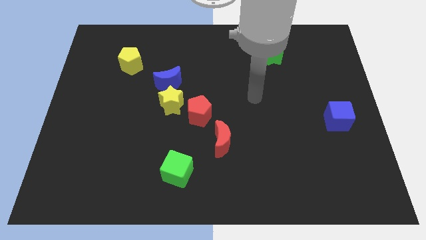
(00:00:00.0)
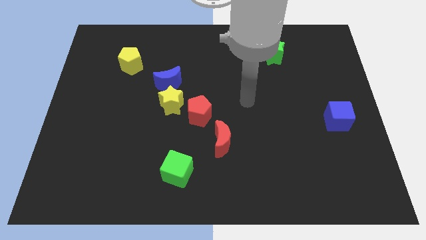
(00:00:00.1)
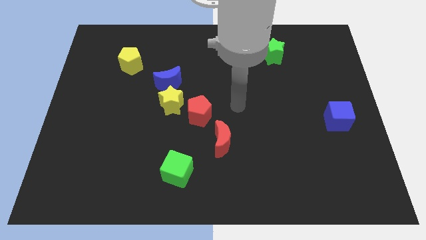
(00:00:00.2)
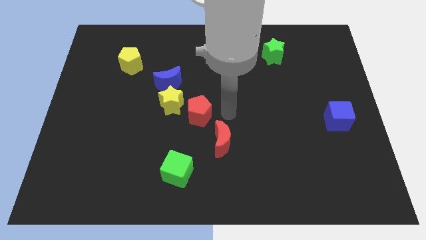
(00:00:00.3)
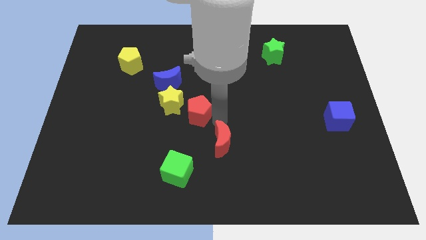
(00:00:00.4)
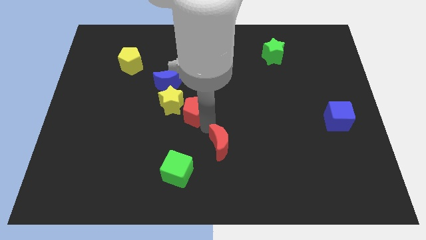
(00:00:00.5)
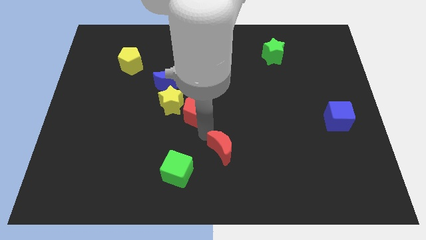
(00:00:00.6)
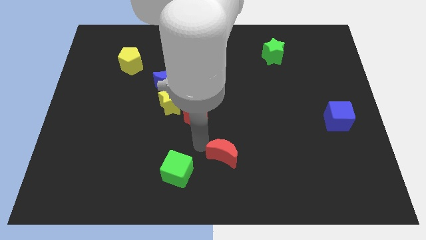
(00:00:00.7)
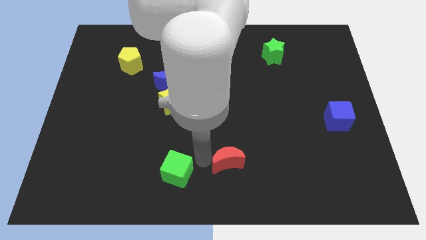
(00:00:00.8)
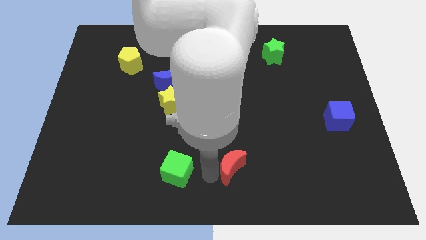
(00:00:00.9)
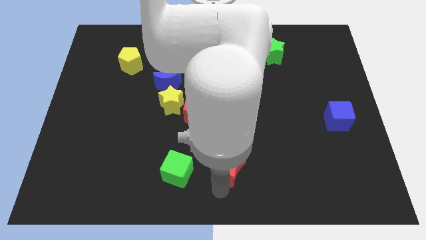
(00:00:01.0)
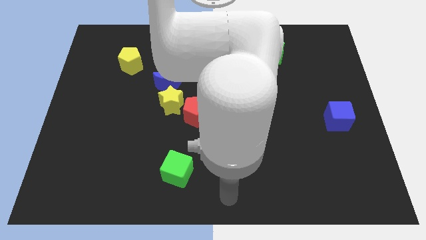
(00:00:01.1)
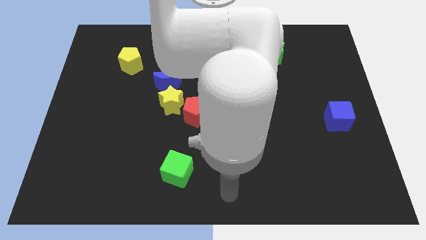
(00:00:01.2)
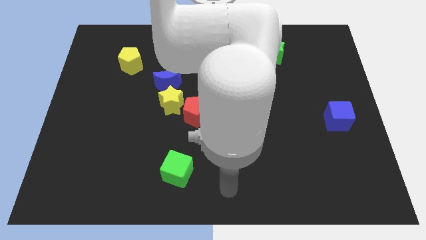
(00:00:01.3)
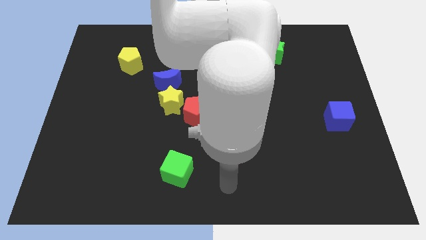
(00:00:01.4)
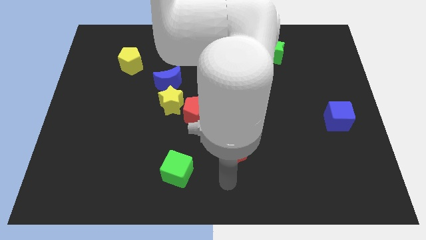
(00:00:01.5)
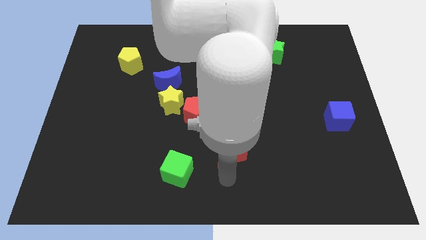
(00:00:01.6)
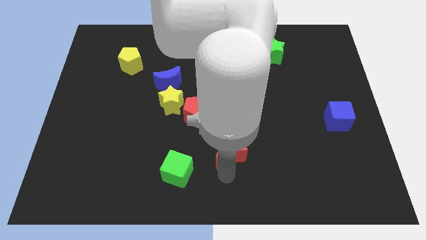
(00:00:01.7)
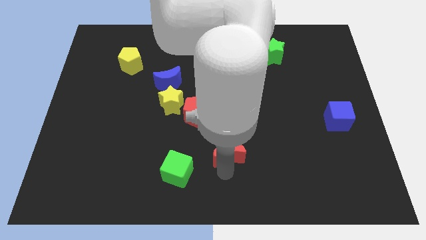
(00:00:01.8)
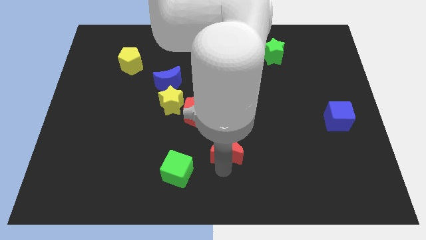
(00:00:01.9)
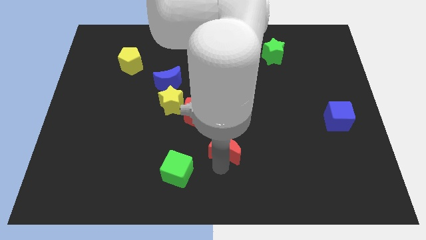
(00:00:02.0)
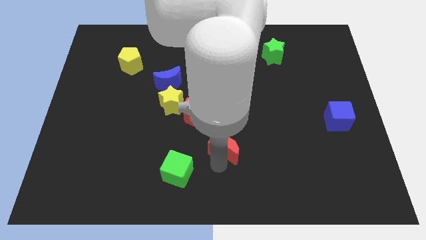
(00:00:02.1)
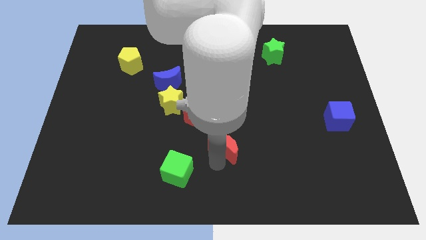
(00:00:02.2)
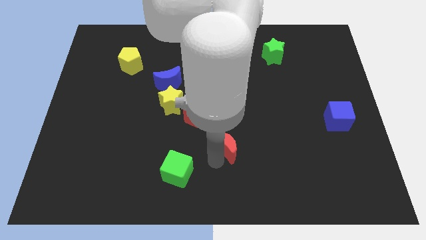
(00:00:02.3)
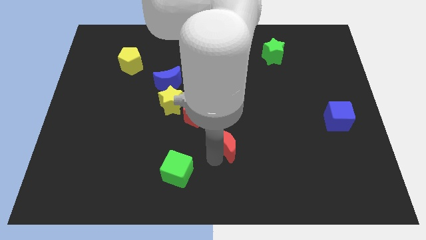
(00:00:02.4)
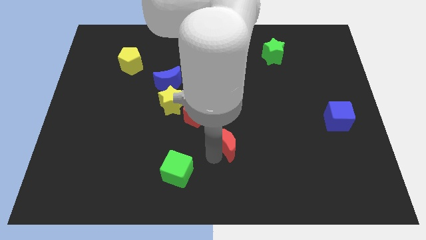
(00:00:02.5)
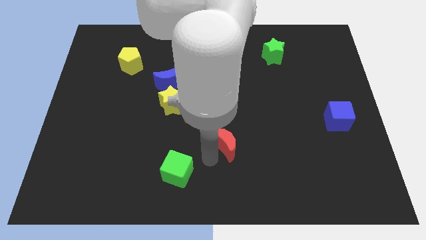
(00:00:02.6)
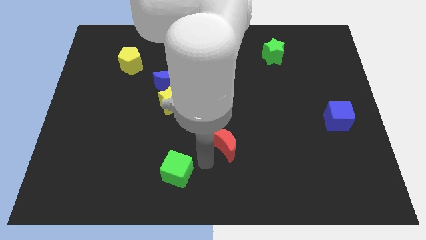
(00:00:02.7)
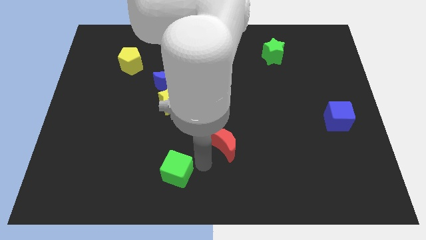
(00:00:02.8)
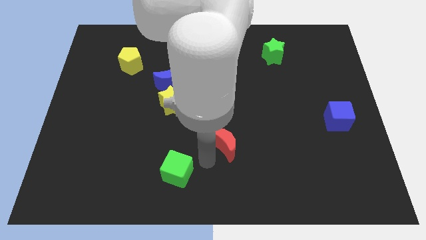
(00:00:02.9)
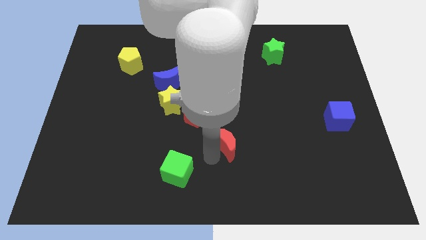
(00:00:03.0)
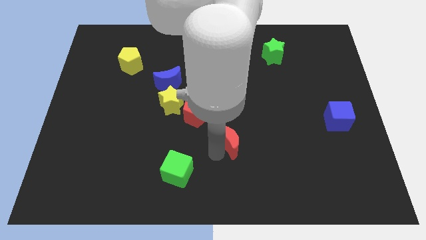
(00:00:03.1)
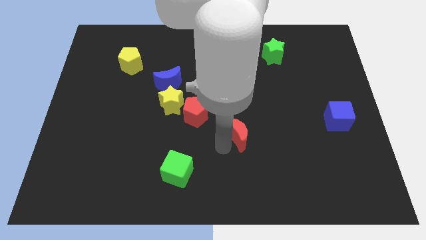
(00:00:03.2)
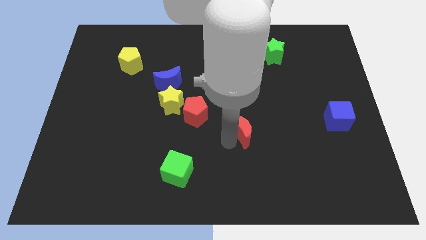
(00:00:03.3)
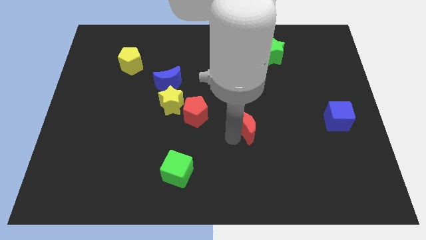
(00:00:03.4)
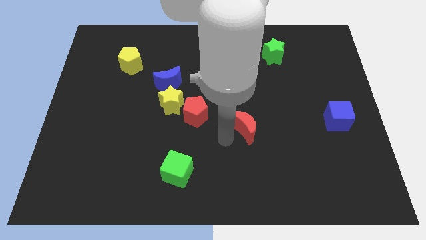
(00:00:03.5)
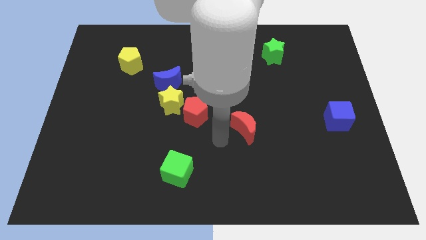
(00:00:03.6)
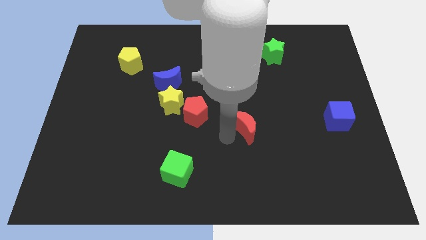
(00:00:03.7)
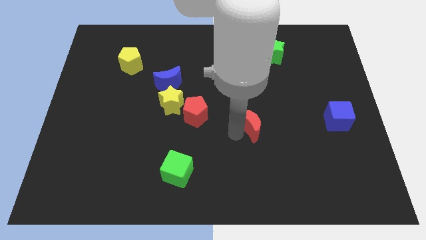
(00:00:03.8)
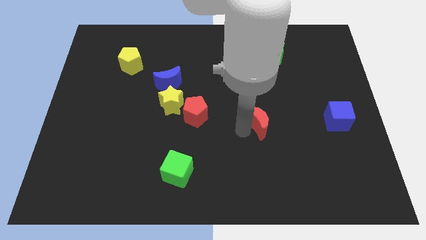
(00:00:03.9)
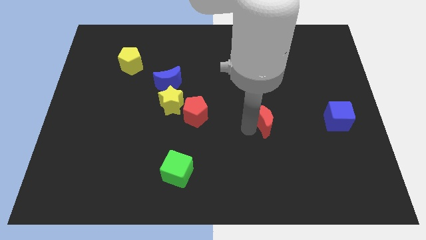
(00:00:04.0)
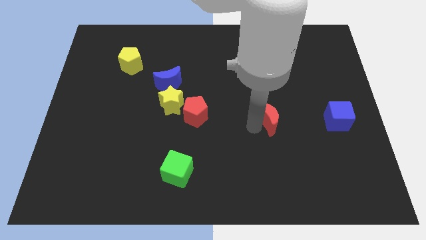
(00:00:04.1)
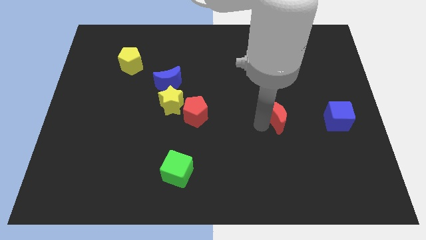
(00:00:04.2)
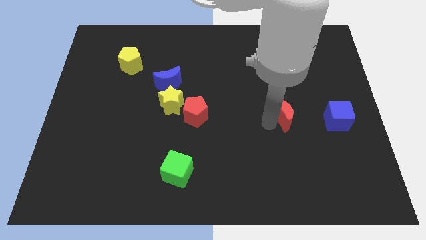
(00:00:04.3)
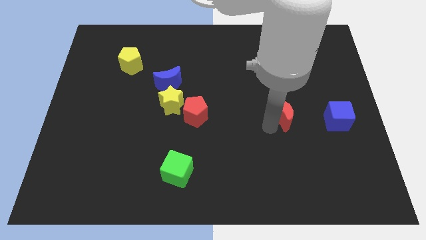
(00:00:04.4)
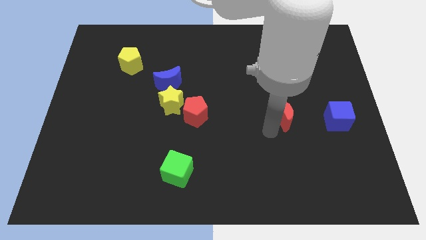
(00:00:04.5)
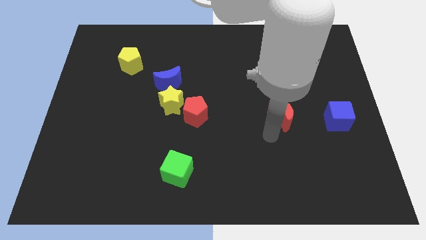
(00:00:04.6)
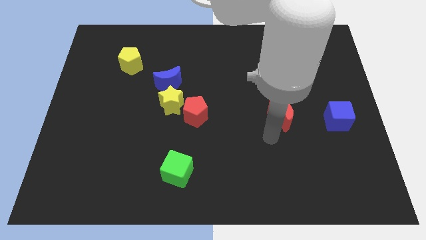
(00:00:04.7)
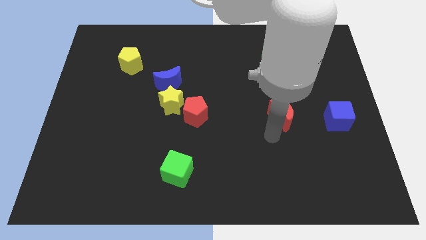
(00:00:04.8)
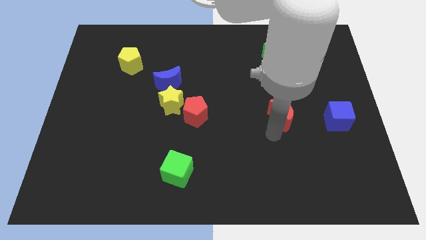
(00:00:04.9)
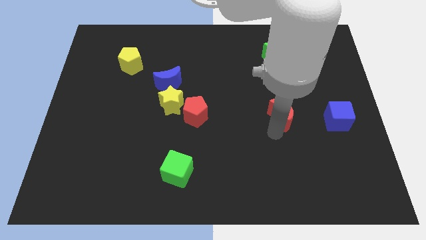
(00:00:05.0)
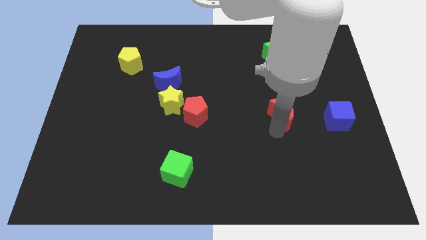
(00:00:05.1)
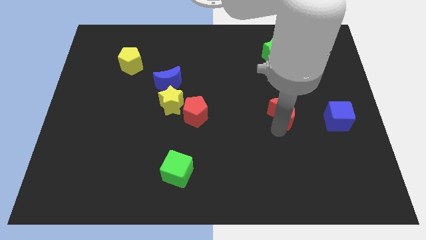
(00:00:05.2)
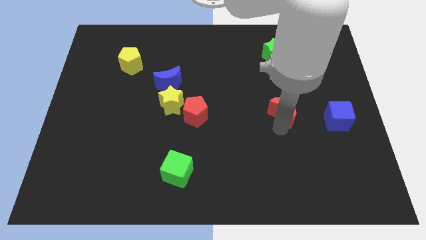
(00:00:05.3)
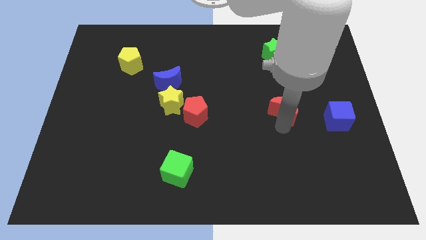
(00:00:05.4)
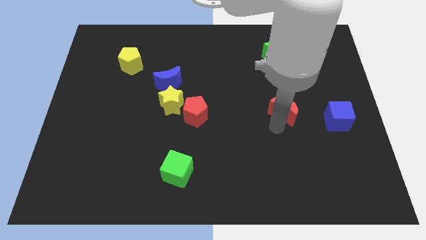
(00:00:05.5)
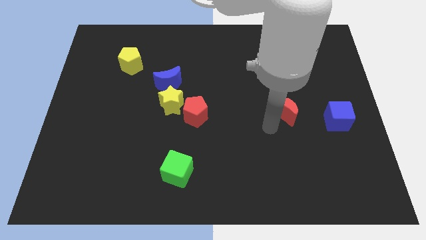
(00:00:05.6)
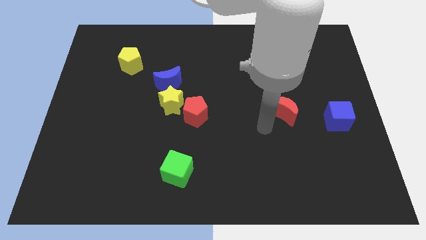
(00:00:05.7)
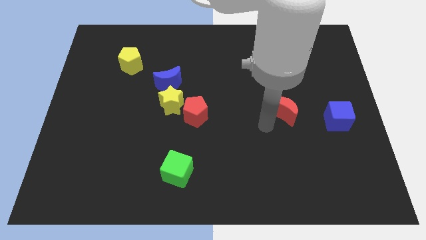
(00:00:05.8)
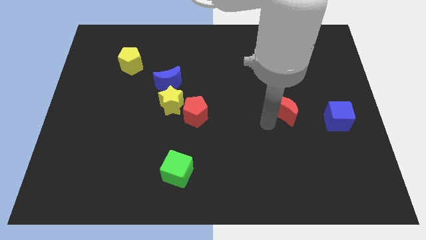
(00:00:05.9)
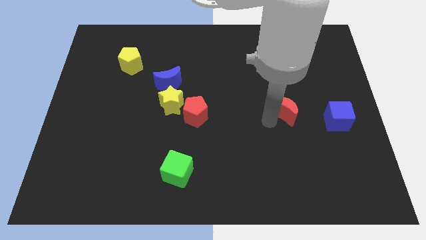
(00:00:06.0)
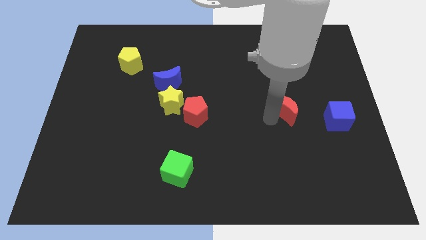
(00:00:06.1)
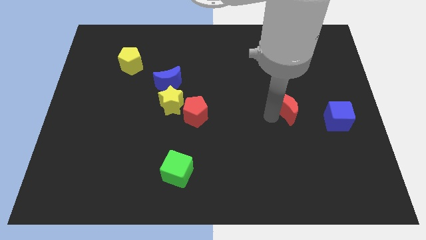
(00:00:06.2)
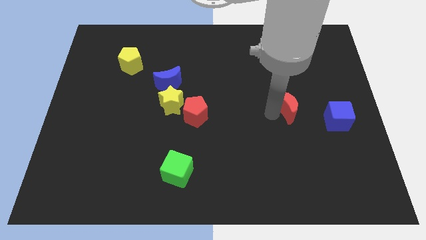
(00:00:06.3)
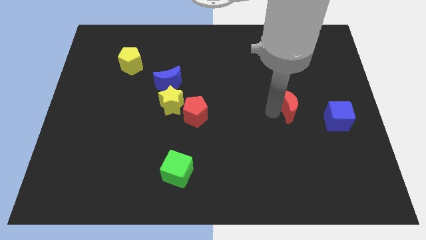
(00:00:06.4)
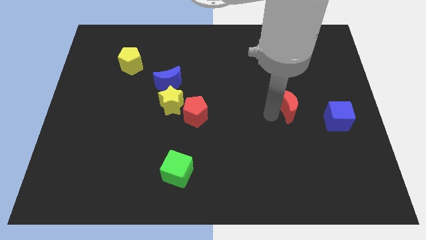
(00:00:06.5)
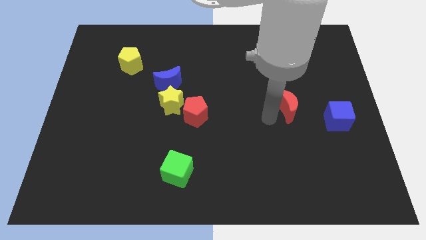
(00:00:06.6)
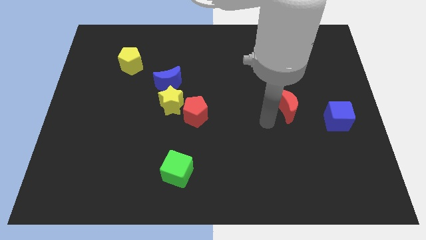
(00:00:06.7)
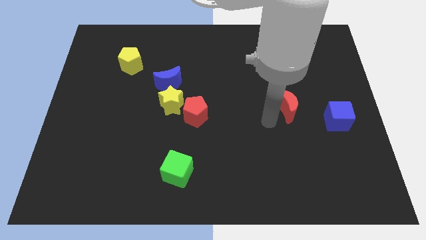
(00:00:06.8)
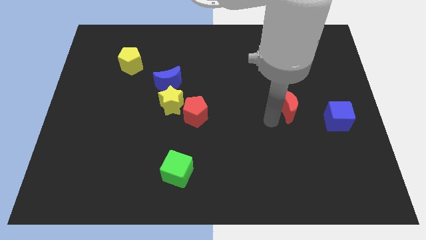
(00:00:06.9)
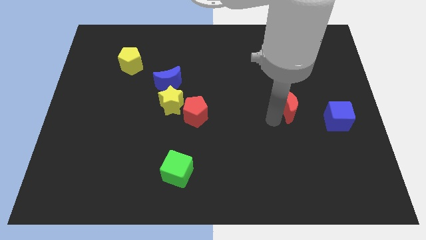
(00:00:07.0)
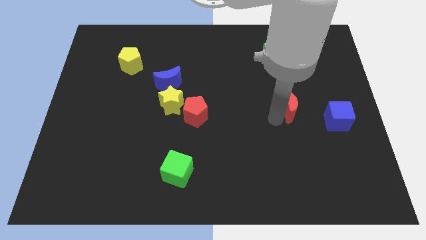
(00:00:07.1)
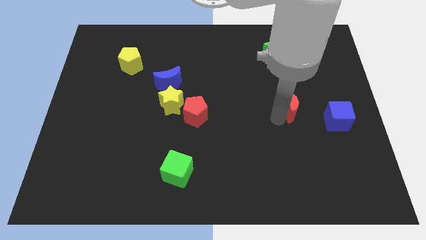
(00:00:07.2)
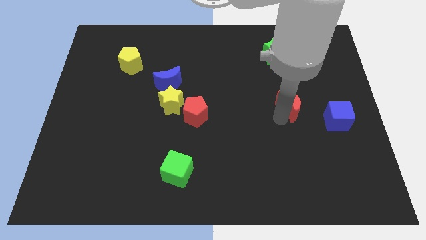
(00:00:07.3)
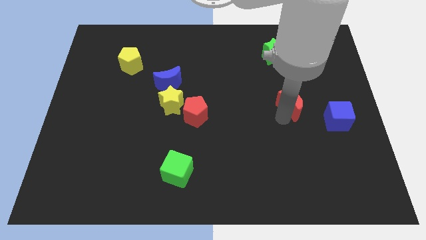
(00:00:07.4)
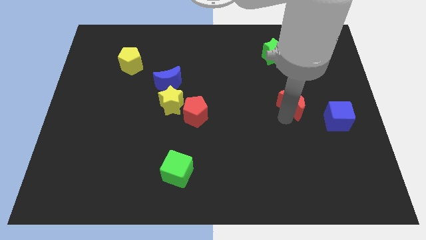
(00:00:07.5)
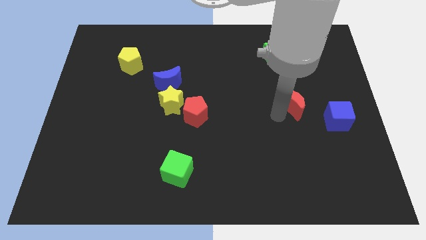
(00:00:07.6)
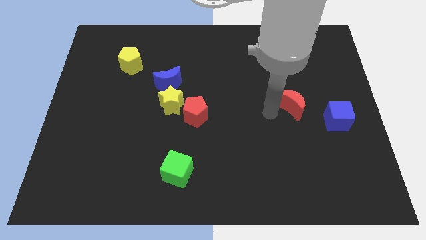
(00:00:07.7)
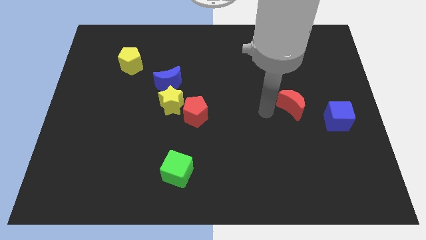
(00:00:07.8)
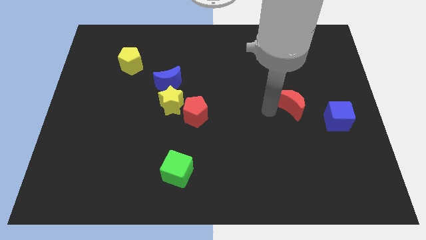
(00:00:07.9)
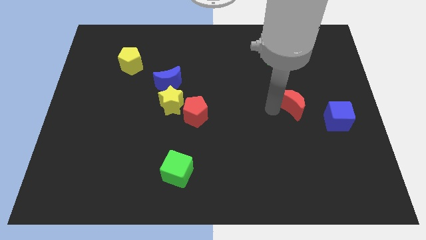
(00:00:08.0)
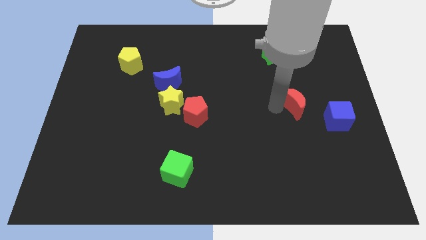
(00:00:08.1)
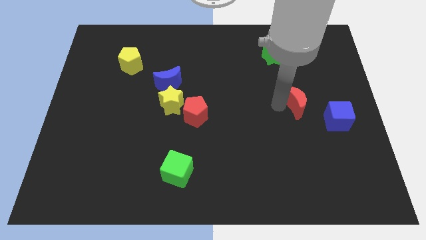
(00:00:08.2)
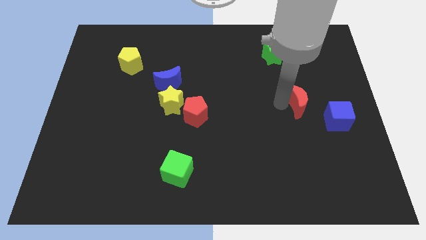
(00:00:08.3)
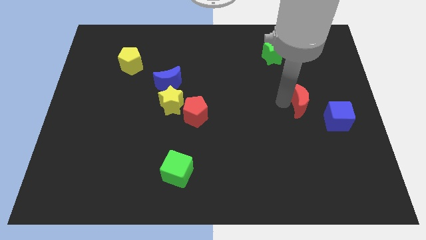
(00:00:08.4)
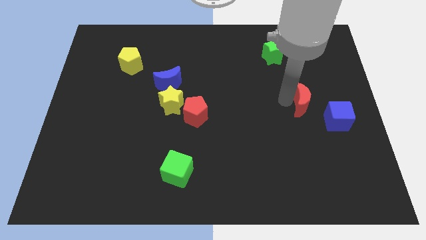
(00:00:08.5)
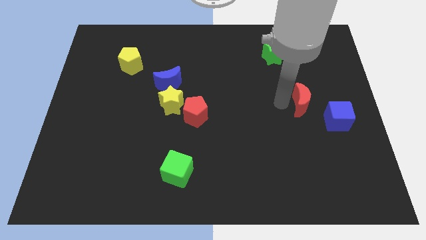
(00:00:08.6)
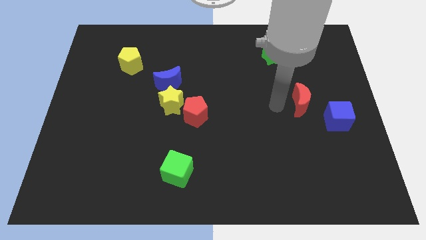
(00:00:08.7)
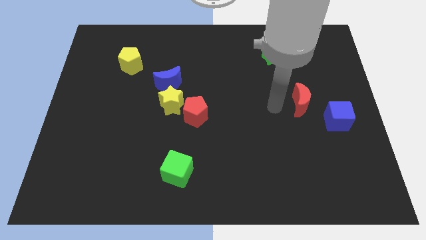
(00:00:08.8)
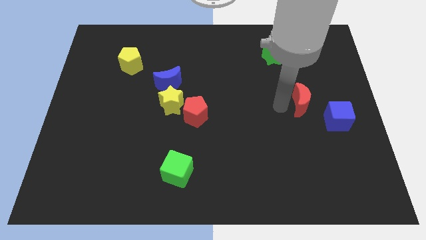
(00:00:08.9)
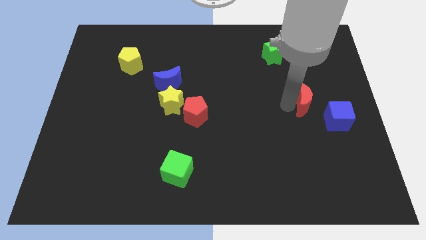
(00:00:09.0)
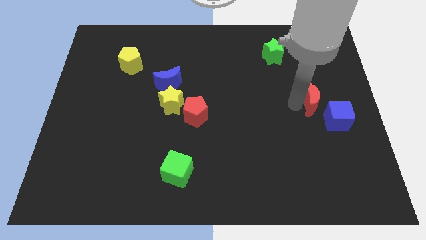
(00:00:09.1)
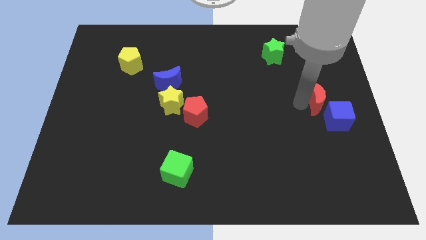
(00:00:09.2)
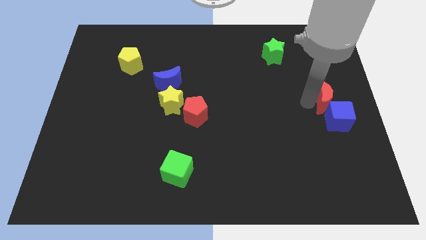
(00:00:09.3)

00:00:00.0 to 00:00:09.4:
move the red moon to the center right
